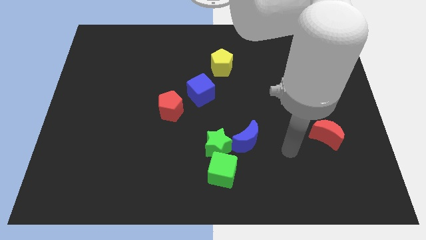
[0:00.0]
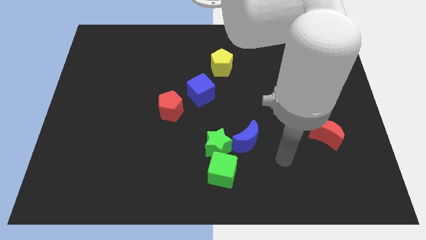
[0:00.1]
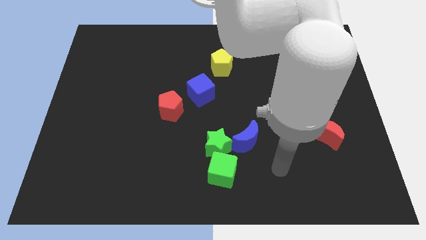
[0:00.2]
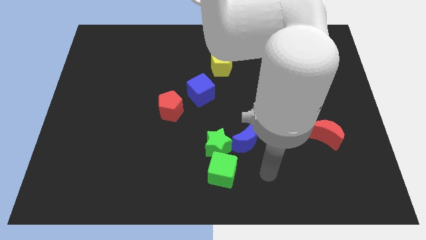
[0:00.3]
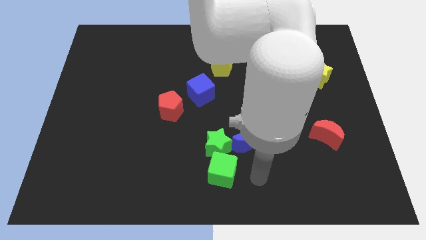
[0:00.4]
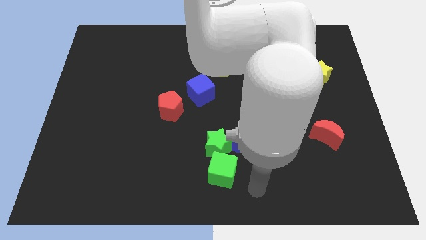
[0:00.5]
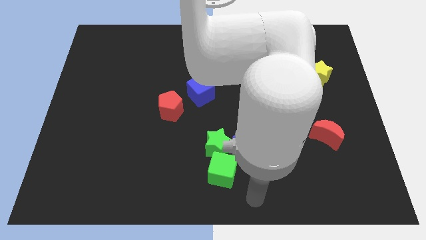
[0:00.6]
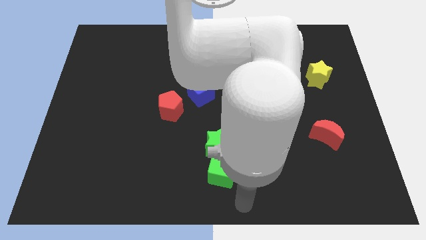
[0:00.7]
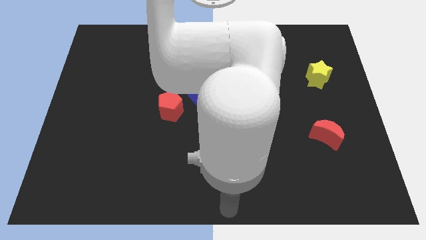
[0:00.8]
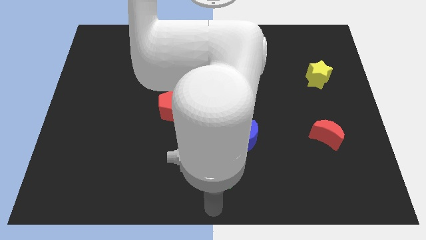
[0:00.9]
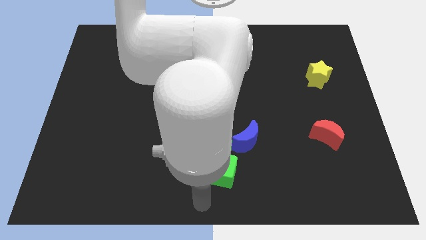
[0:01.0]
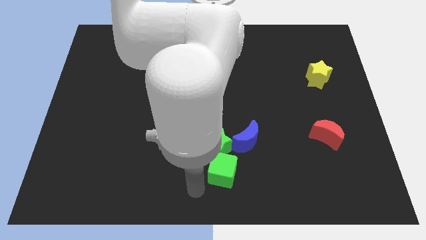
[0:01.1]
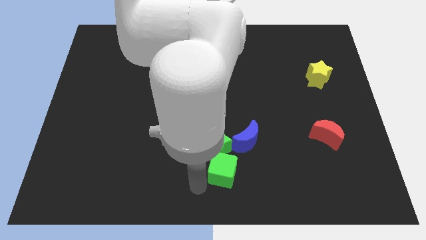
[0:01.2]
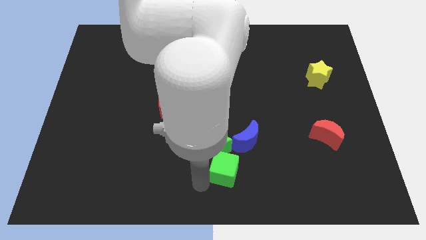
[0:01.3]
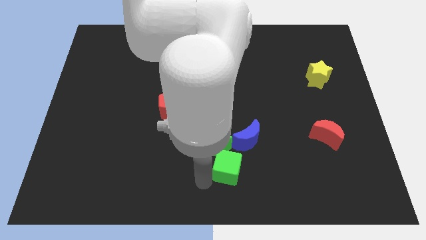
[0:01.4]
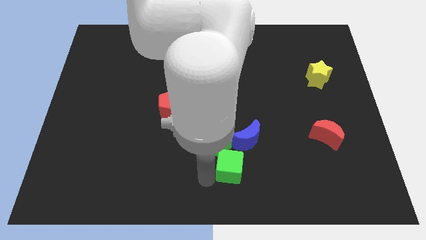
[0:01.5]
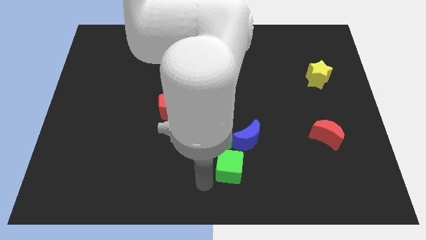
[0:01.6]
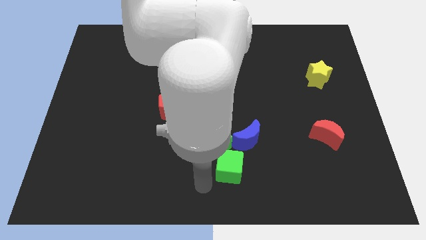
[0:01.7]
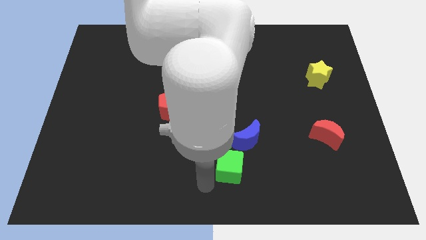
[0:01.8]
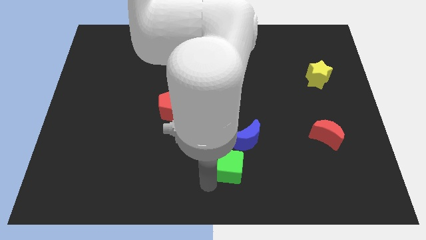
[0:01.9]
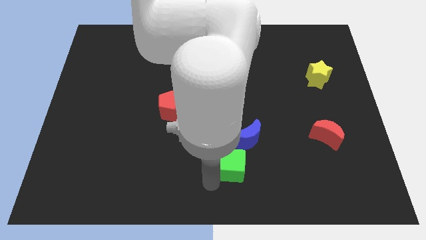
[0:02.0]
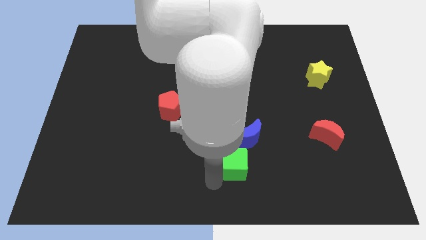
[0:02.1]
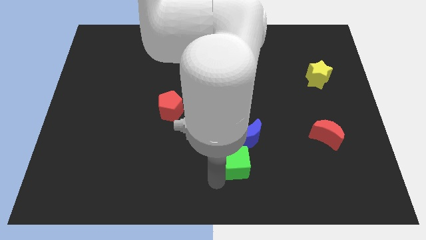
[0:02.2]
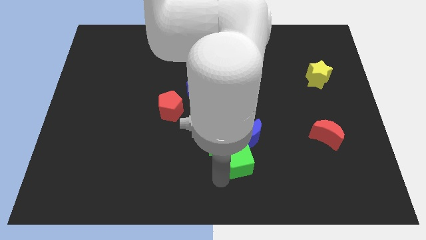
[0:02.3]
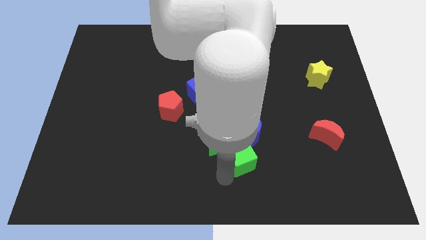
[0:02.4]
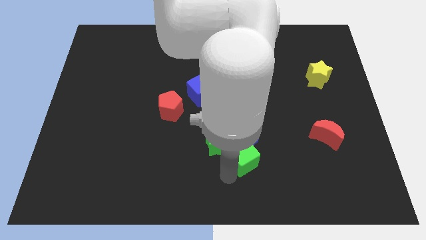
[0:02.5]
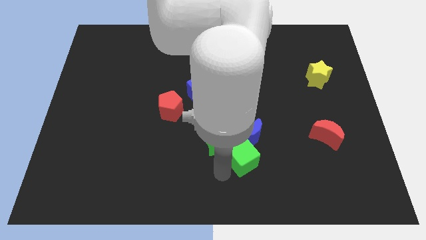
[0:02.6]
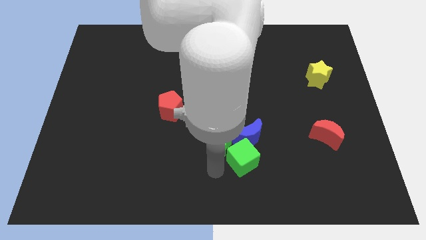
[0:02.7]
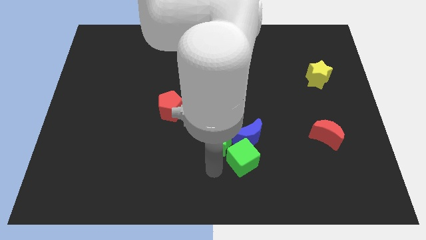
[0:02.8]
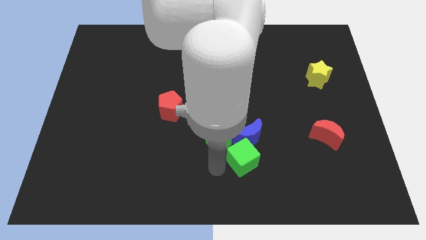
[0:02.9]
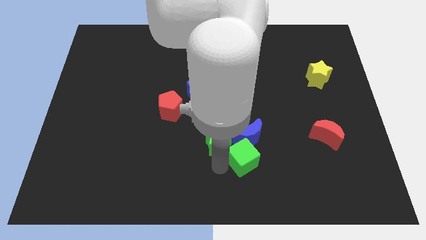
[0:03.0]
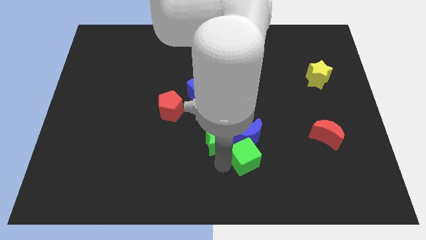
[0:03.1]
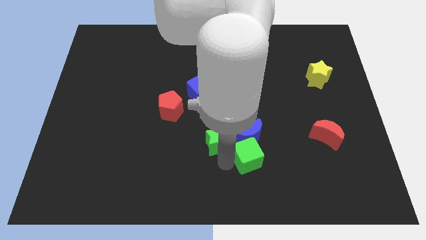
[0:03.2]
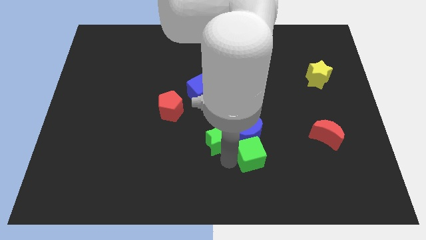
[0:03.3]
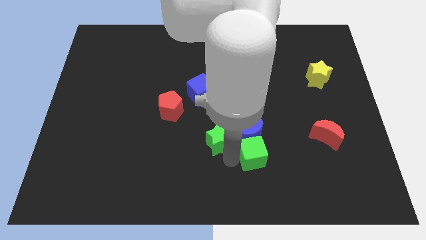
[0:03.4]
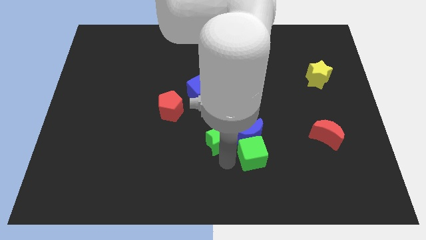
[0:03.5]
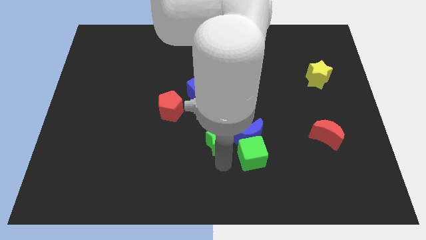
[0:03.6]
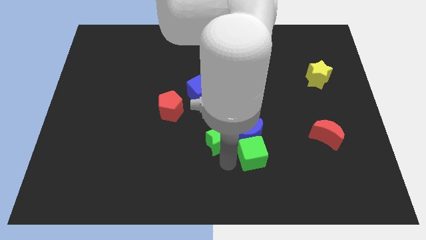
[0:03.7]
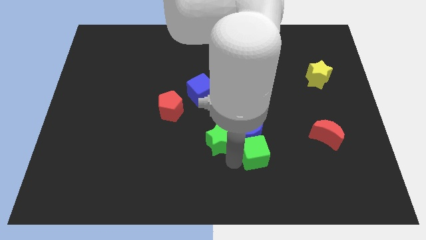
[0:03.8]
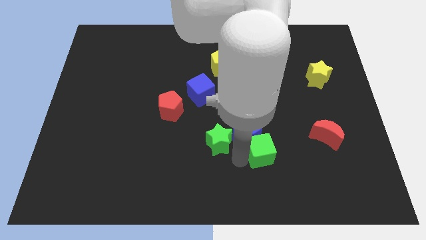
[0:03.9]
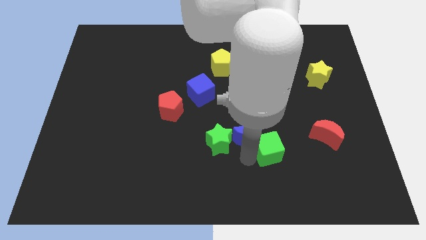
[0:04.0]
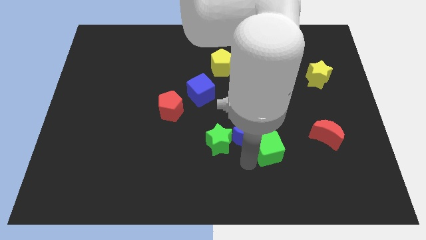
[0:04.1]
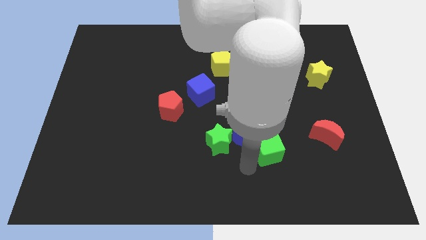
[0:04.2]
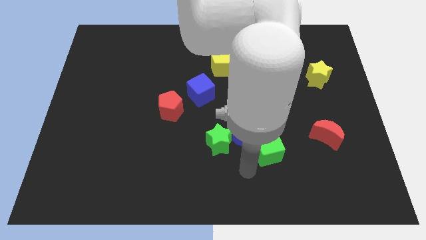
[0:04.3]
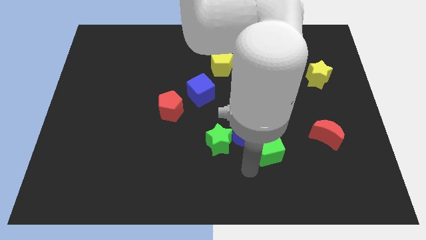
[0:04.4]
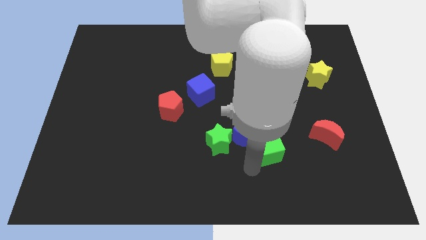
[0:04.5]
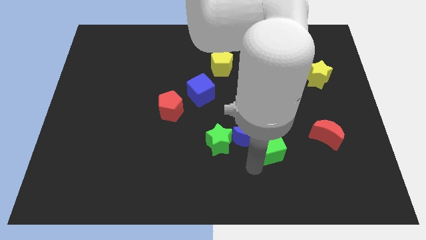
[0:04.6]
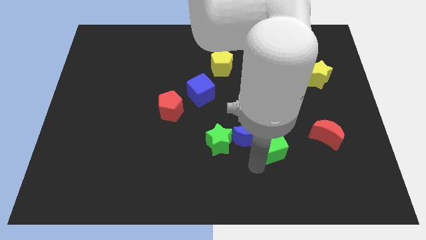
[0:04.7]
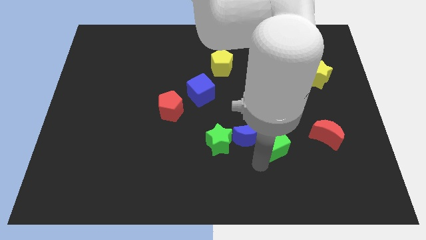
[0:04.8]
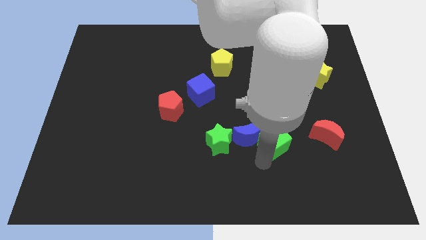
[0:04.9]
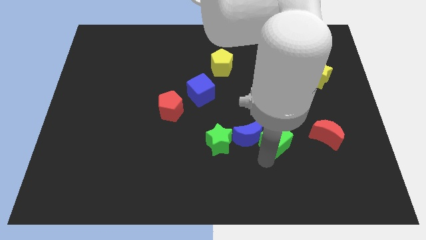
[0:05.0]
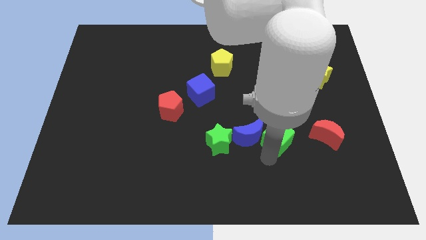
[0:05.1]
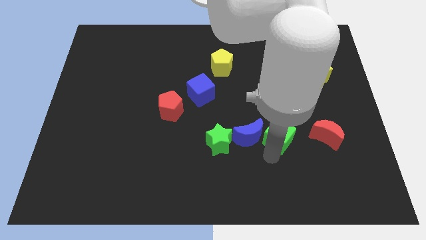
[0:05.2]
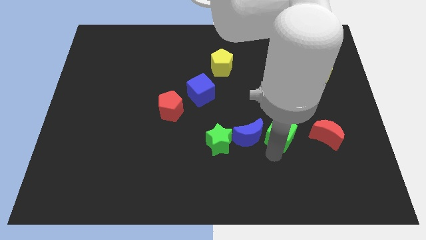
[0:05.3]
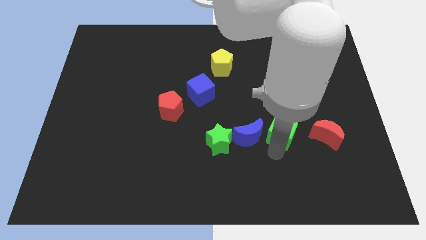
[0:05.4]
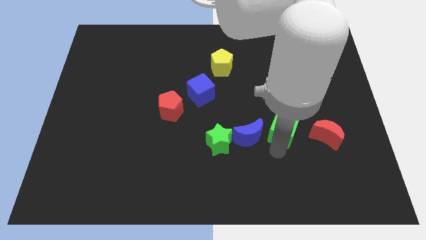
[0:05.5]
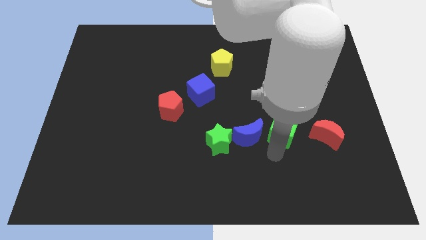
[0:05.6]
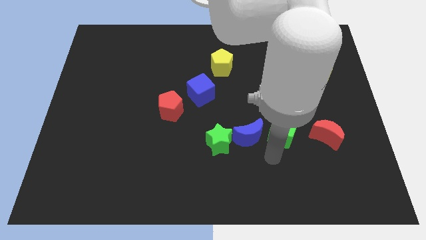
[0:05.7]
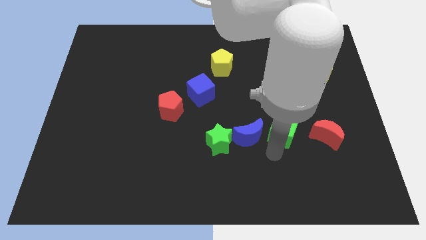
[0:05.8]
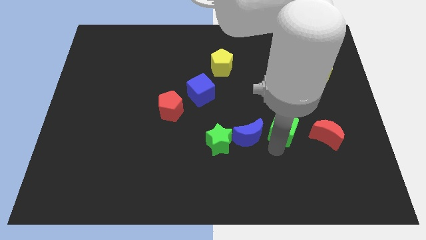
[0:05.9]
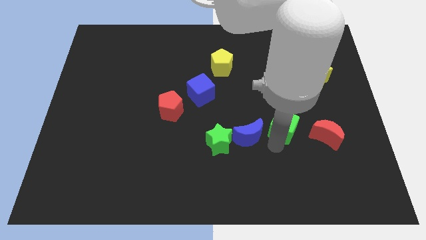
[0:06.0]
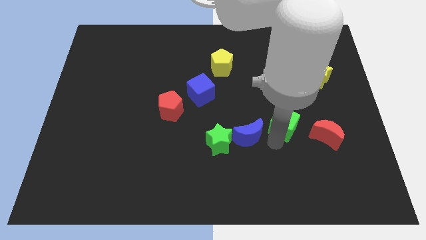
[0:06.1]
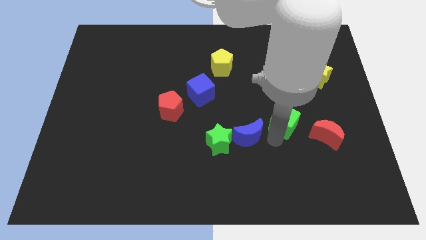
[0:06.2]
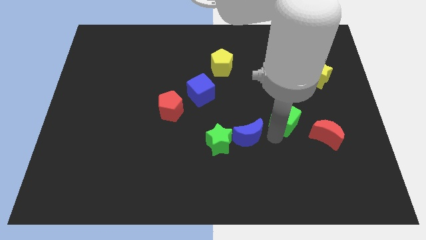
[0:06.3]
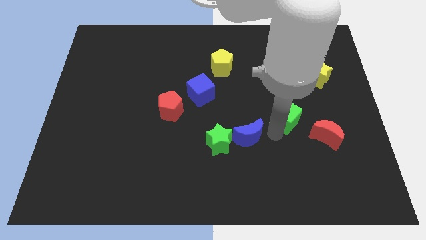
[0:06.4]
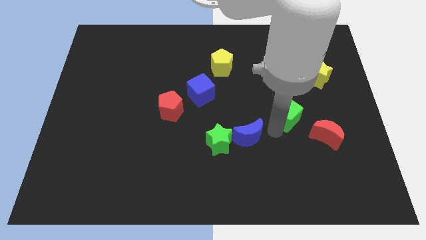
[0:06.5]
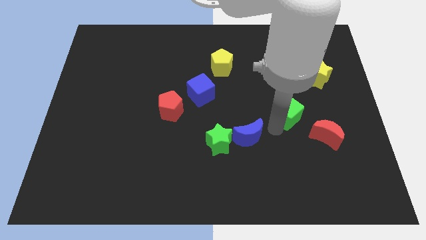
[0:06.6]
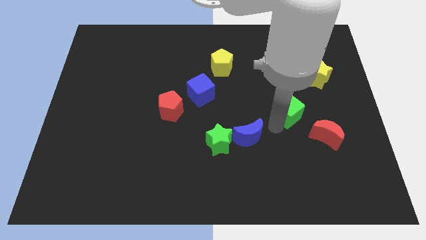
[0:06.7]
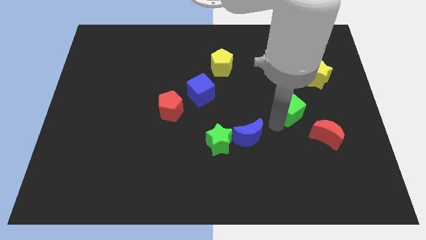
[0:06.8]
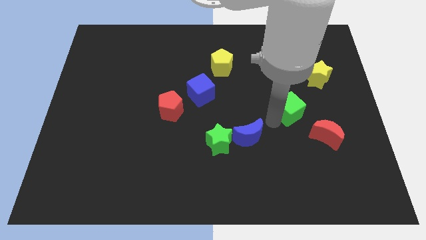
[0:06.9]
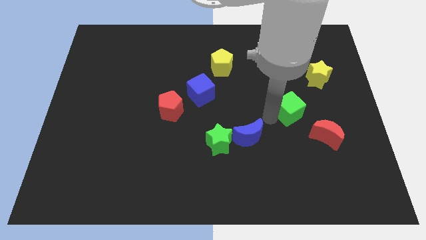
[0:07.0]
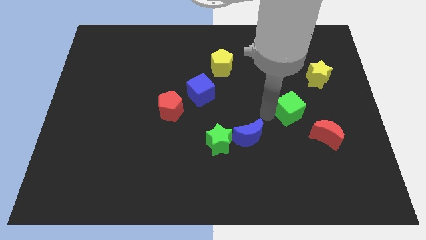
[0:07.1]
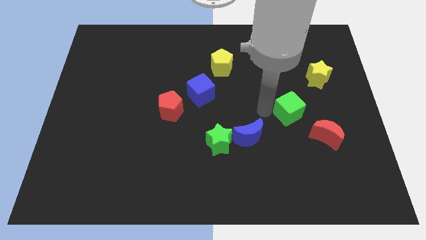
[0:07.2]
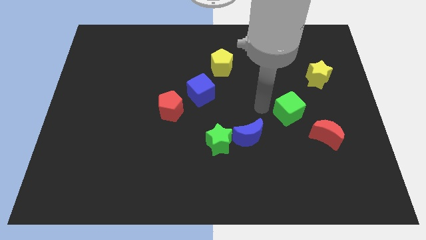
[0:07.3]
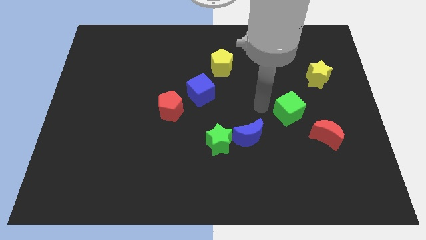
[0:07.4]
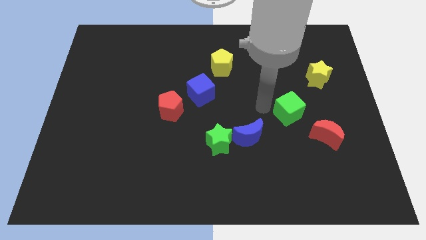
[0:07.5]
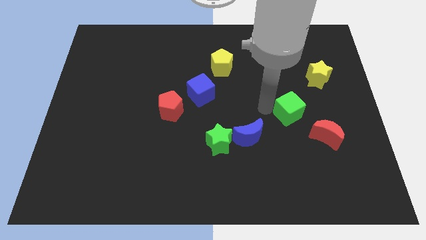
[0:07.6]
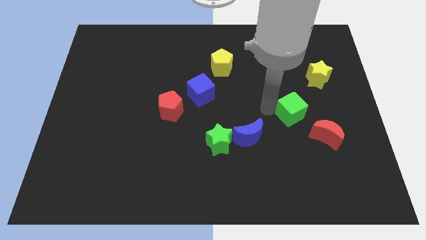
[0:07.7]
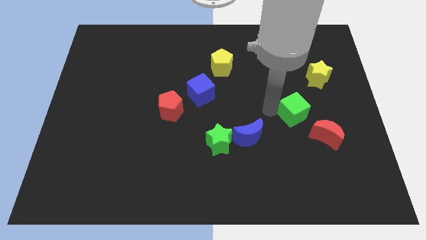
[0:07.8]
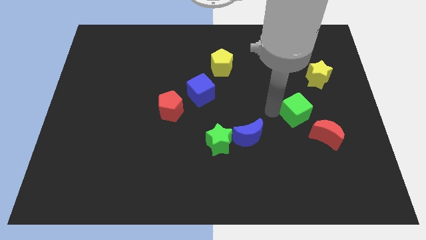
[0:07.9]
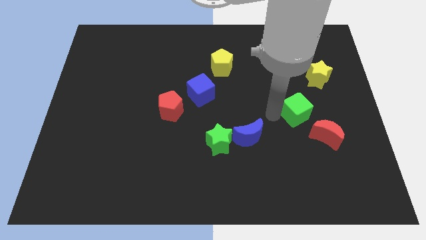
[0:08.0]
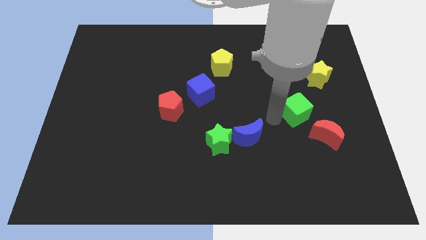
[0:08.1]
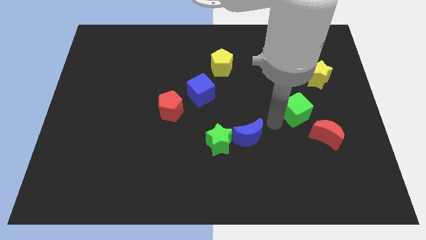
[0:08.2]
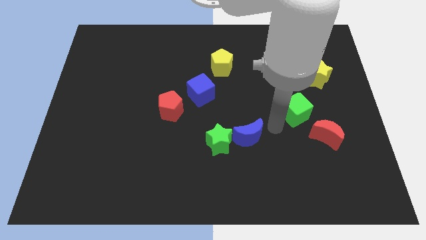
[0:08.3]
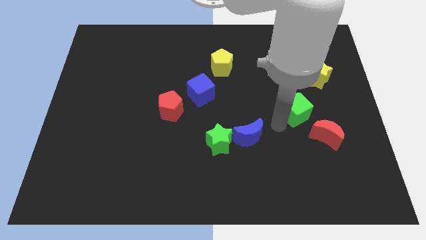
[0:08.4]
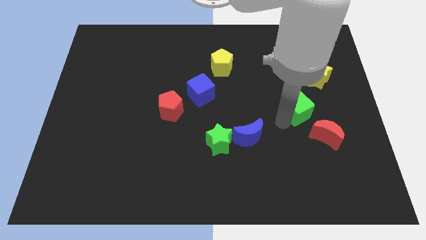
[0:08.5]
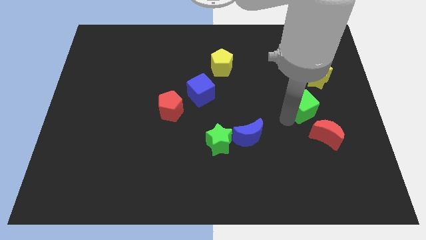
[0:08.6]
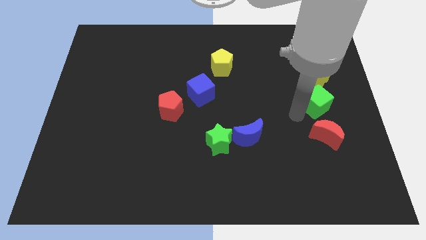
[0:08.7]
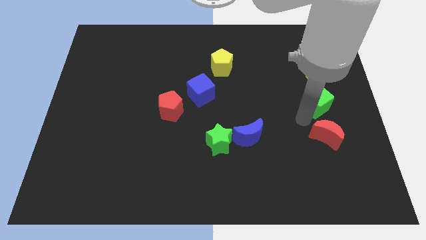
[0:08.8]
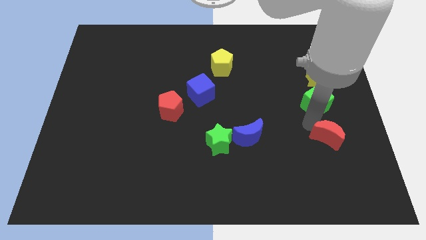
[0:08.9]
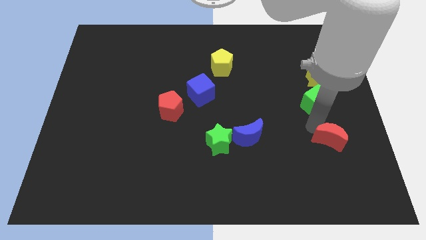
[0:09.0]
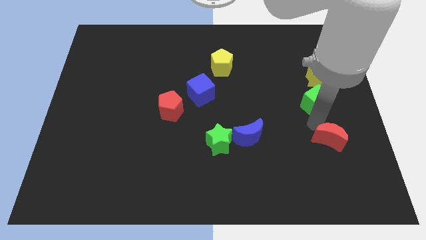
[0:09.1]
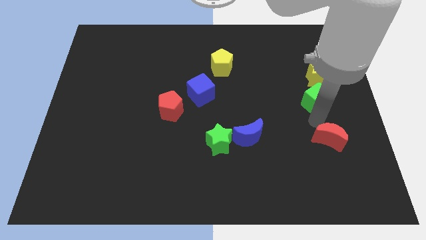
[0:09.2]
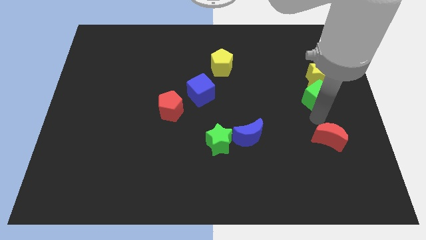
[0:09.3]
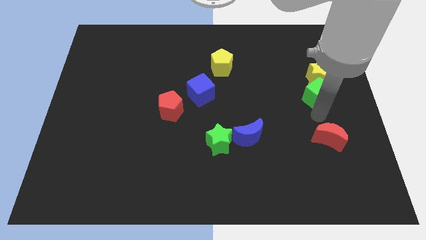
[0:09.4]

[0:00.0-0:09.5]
push the green cube towards the yellow star
